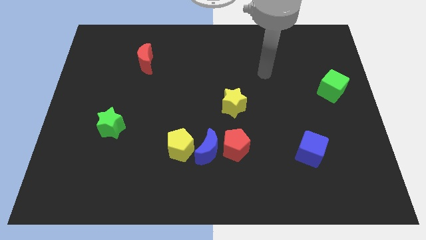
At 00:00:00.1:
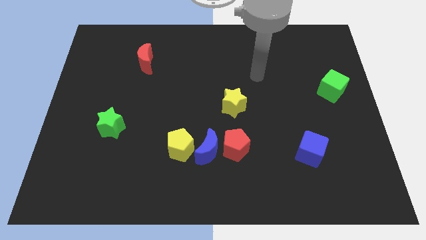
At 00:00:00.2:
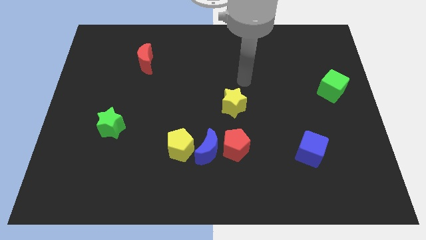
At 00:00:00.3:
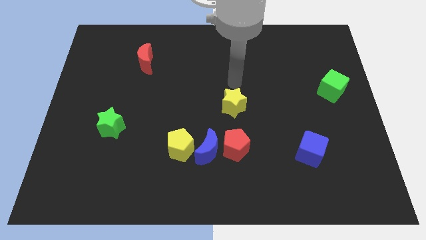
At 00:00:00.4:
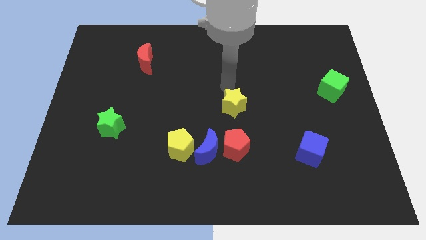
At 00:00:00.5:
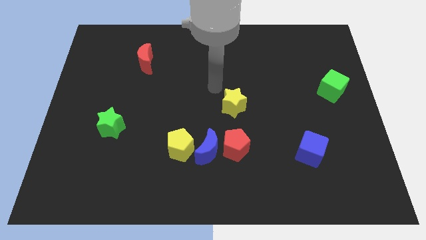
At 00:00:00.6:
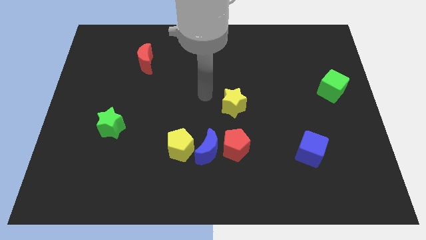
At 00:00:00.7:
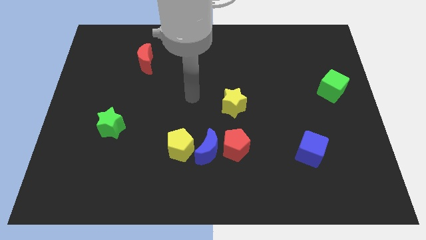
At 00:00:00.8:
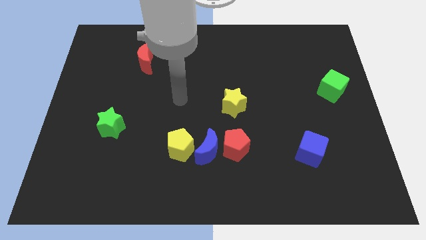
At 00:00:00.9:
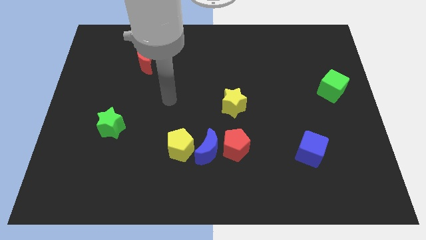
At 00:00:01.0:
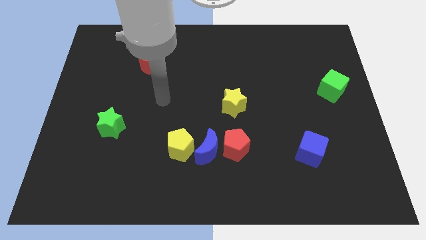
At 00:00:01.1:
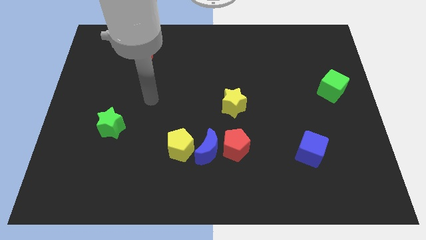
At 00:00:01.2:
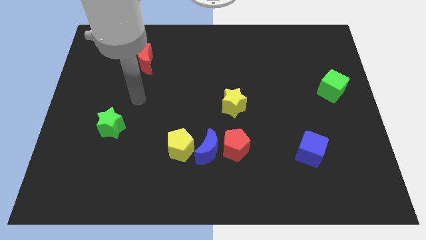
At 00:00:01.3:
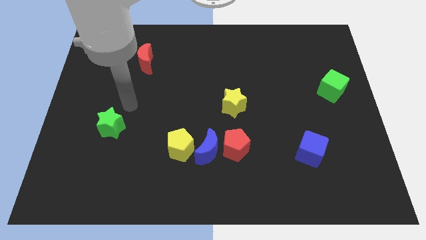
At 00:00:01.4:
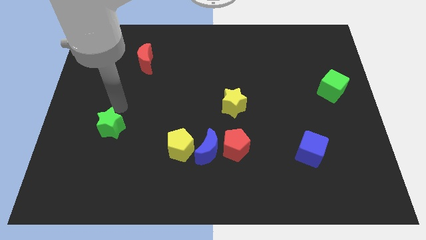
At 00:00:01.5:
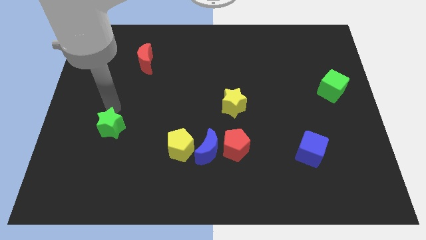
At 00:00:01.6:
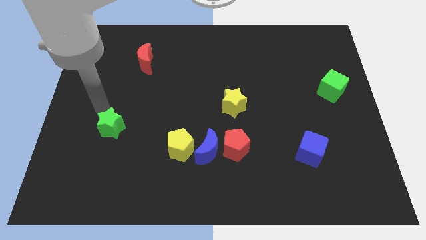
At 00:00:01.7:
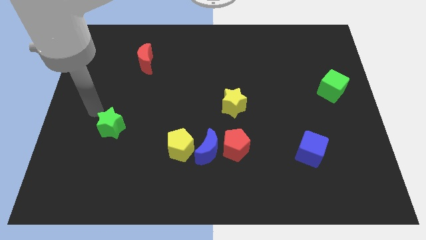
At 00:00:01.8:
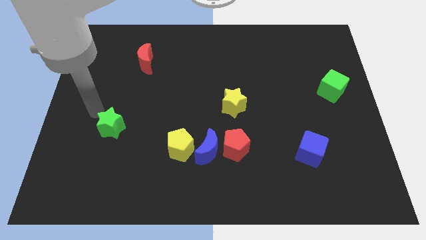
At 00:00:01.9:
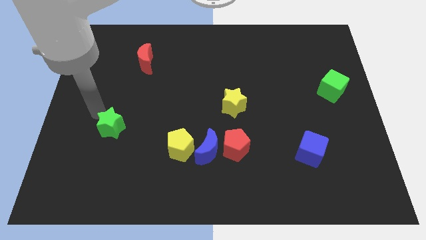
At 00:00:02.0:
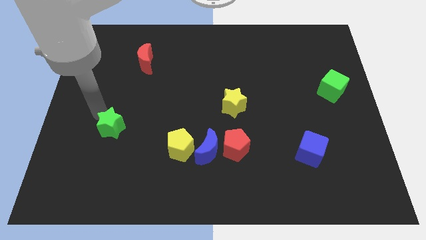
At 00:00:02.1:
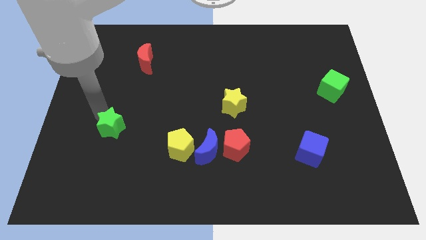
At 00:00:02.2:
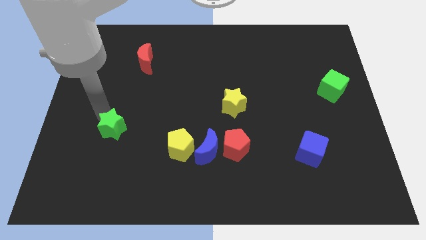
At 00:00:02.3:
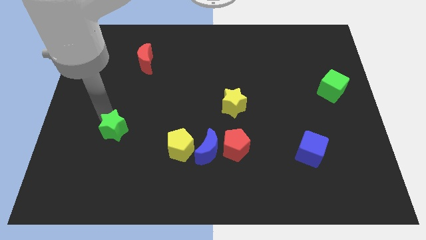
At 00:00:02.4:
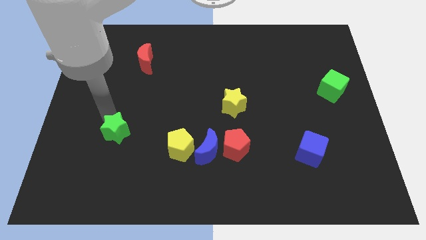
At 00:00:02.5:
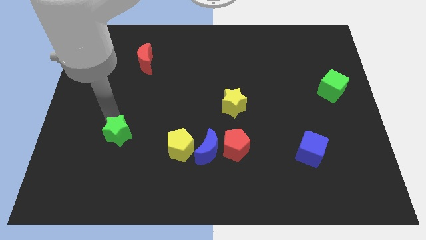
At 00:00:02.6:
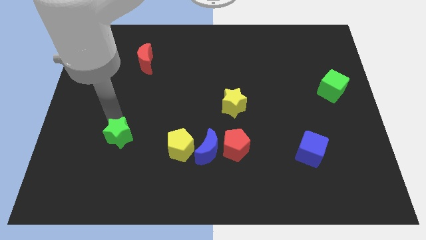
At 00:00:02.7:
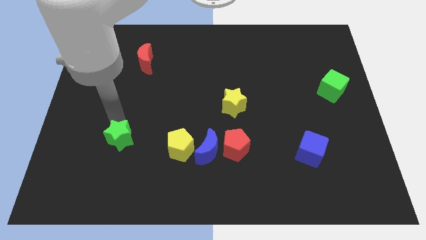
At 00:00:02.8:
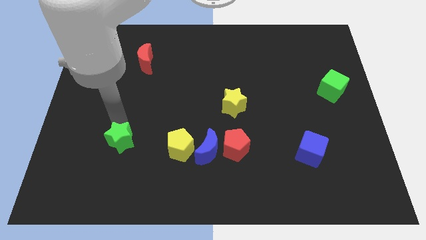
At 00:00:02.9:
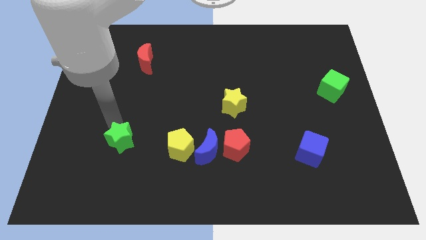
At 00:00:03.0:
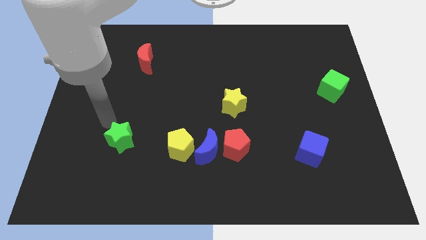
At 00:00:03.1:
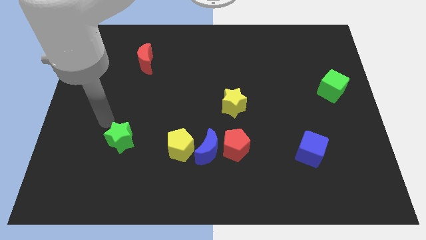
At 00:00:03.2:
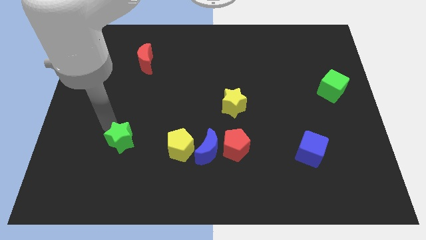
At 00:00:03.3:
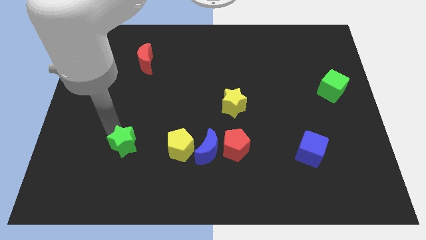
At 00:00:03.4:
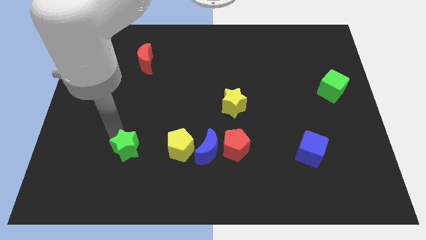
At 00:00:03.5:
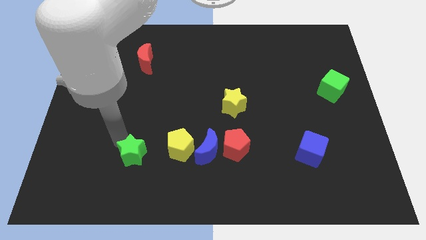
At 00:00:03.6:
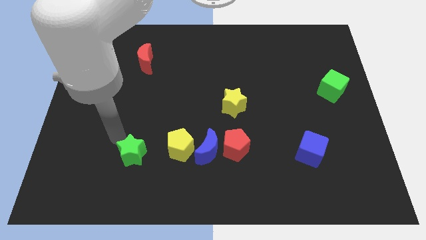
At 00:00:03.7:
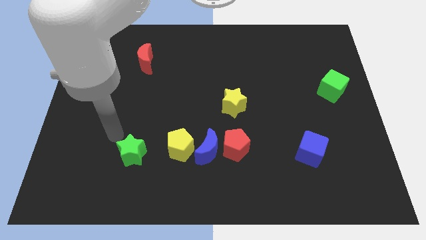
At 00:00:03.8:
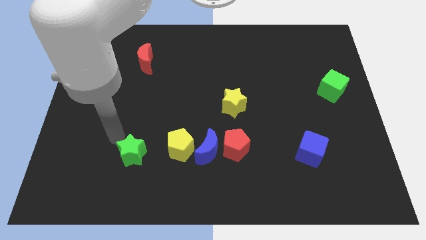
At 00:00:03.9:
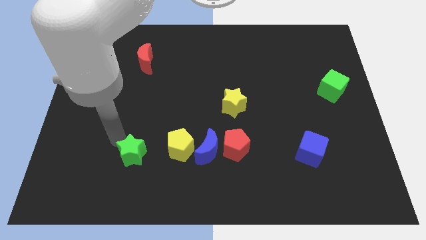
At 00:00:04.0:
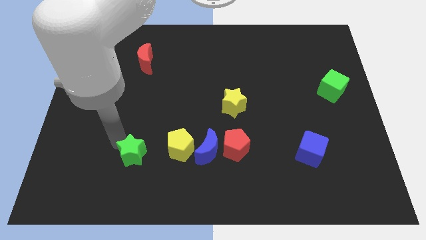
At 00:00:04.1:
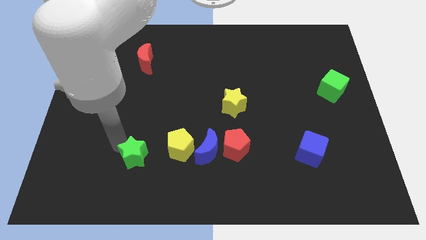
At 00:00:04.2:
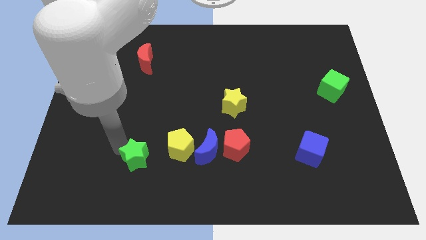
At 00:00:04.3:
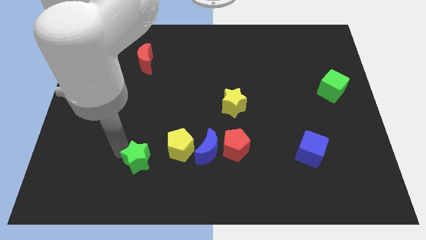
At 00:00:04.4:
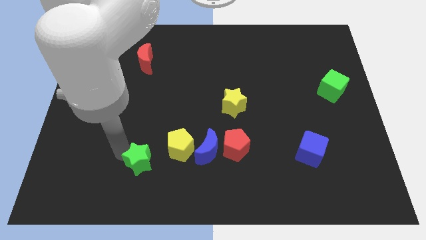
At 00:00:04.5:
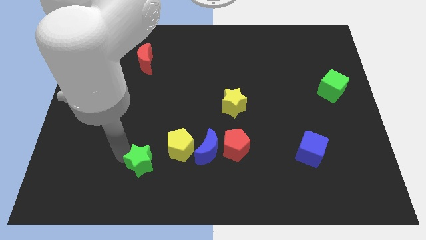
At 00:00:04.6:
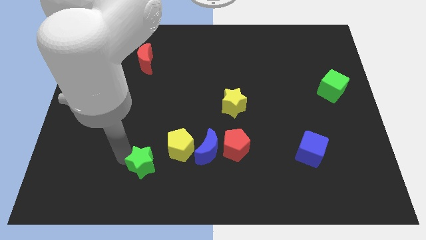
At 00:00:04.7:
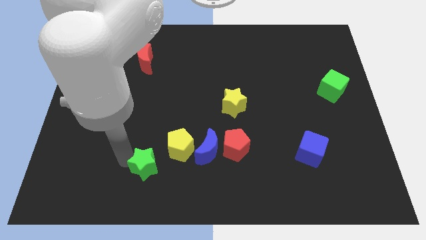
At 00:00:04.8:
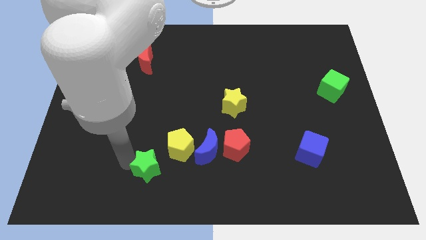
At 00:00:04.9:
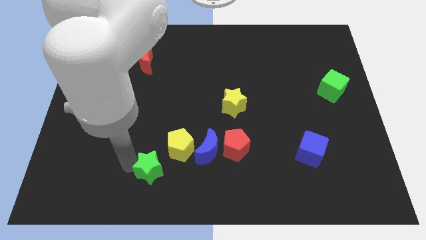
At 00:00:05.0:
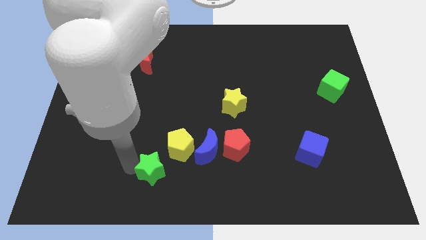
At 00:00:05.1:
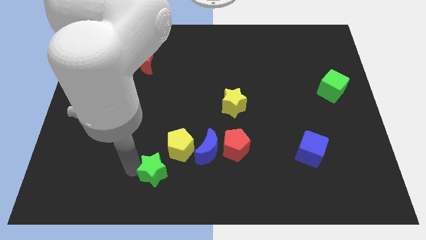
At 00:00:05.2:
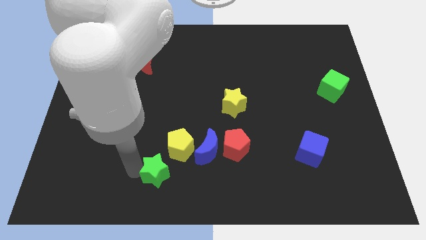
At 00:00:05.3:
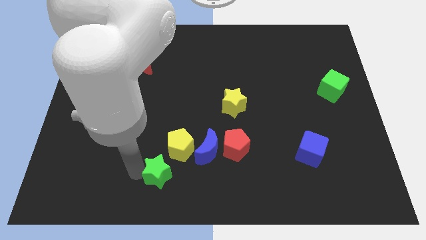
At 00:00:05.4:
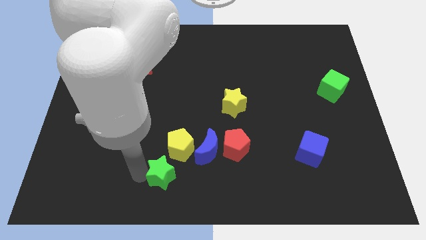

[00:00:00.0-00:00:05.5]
push the green star to the bottom
